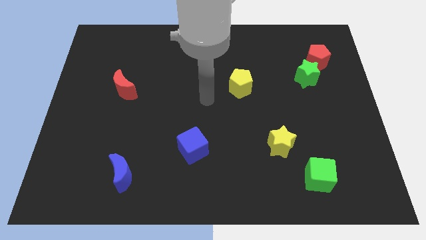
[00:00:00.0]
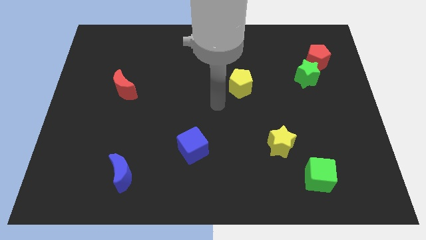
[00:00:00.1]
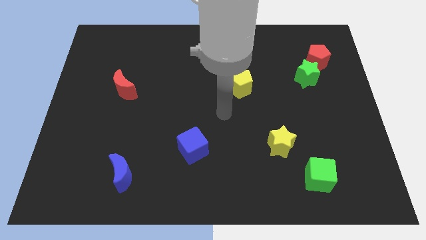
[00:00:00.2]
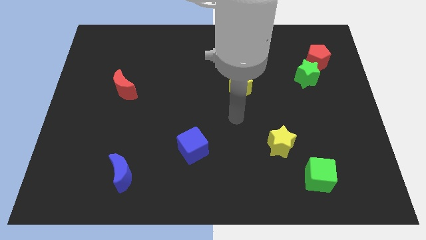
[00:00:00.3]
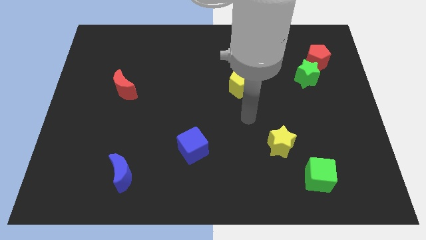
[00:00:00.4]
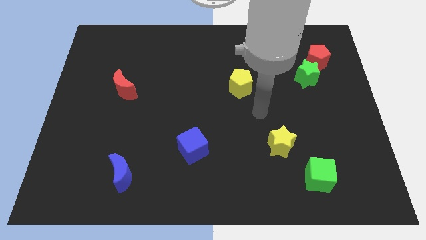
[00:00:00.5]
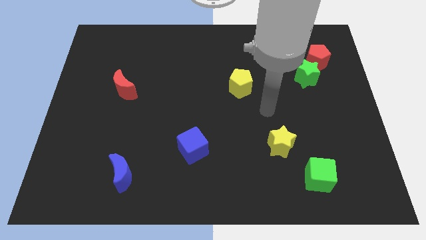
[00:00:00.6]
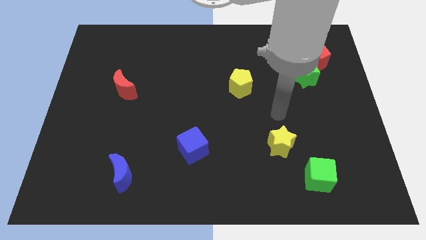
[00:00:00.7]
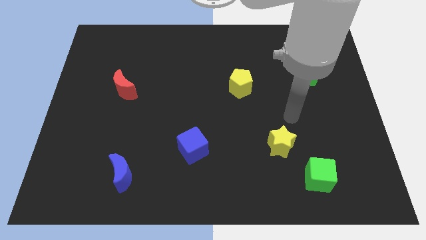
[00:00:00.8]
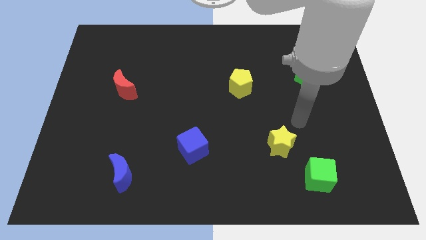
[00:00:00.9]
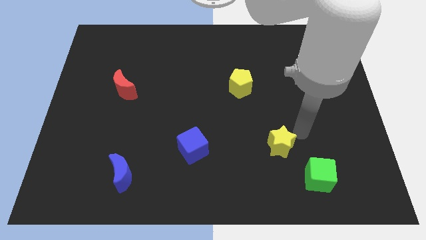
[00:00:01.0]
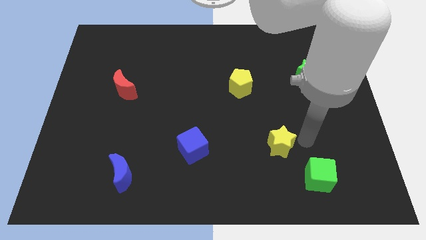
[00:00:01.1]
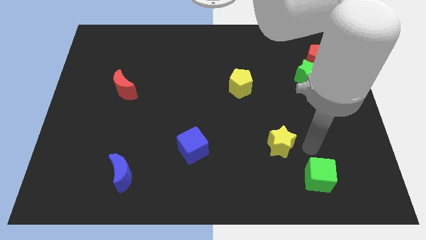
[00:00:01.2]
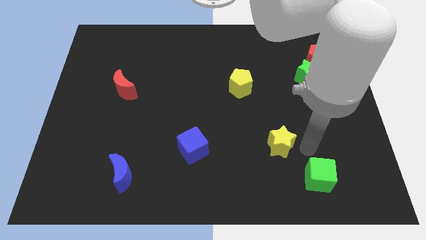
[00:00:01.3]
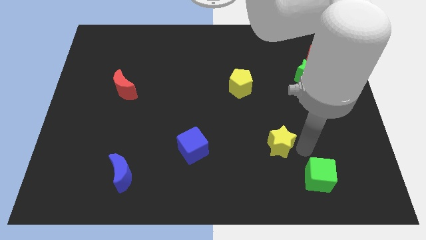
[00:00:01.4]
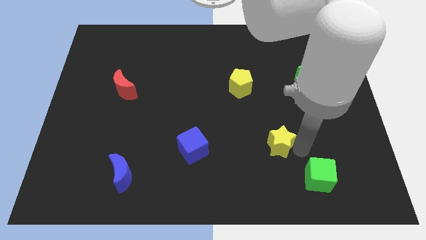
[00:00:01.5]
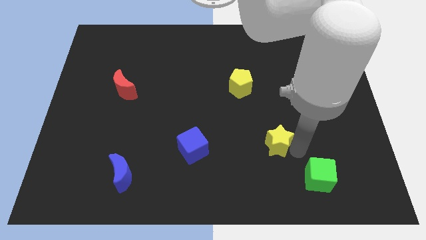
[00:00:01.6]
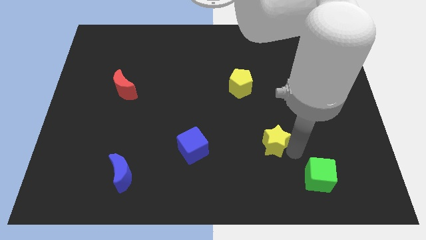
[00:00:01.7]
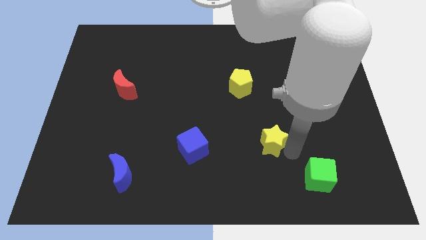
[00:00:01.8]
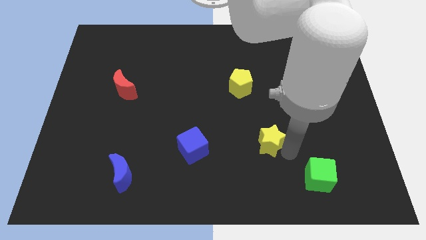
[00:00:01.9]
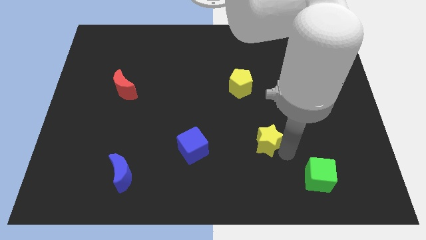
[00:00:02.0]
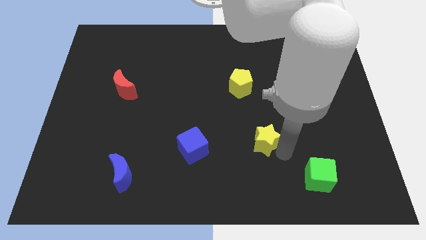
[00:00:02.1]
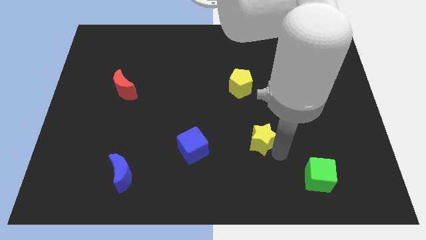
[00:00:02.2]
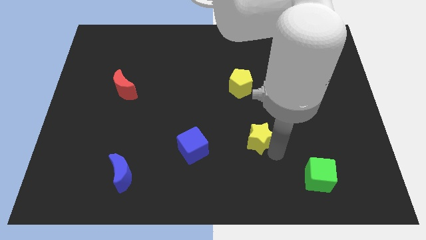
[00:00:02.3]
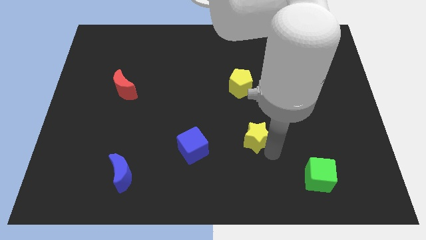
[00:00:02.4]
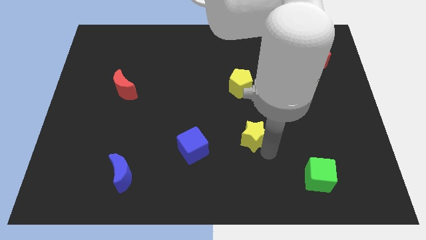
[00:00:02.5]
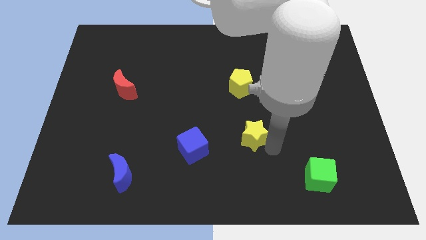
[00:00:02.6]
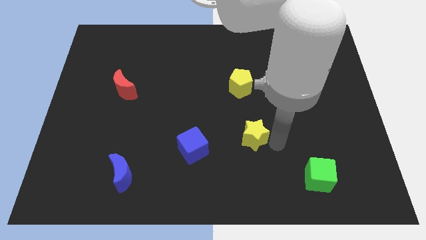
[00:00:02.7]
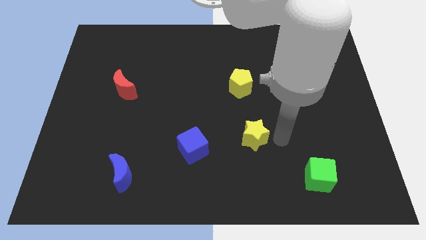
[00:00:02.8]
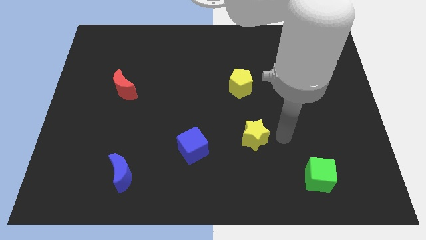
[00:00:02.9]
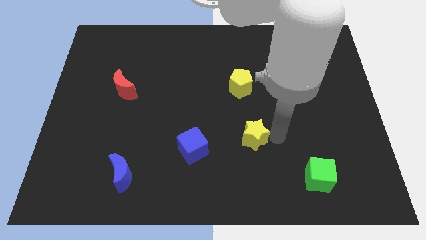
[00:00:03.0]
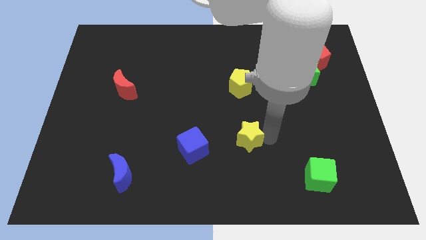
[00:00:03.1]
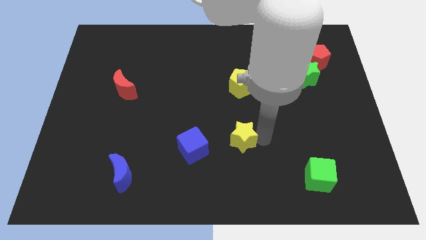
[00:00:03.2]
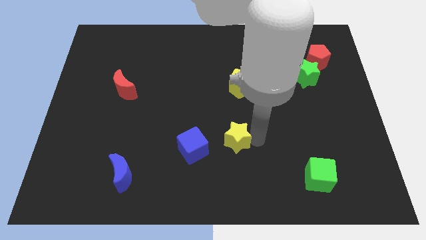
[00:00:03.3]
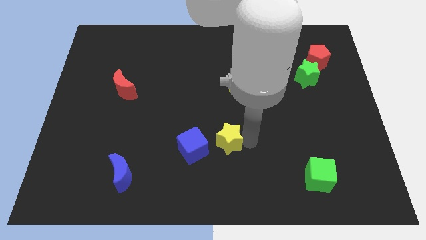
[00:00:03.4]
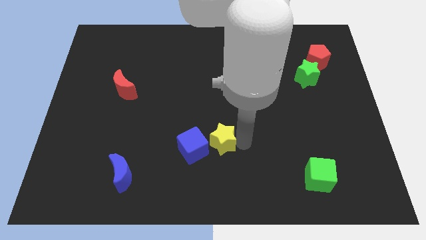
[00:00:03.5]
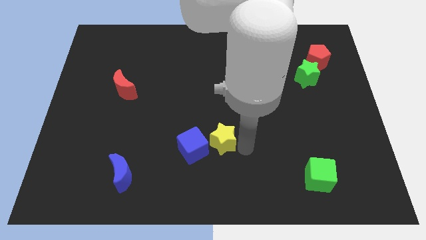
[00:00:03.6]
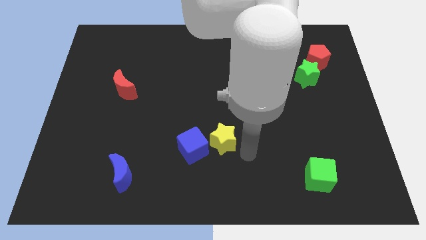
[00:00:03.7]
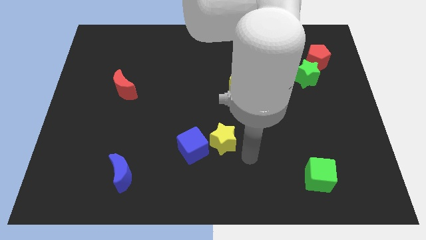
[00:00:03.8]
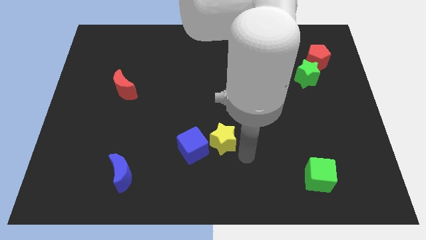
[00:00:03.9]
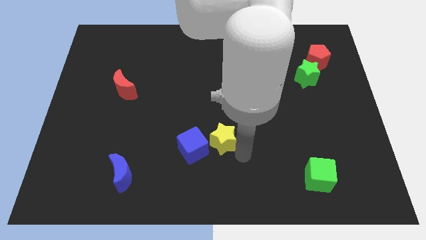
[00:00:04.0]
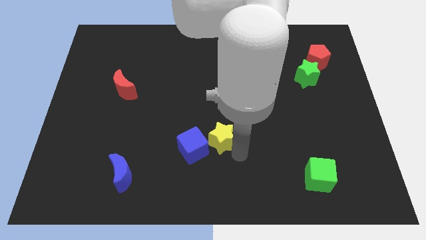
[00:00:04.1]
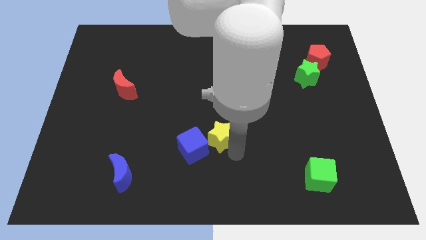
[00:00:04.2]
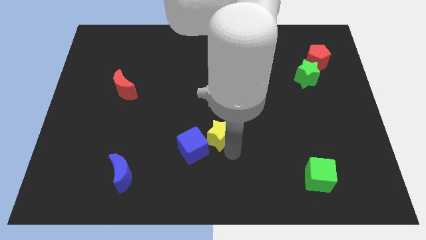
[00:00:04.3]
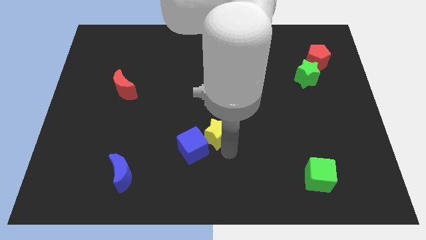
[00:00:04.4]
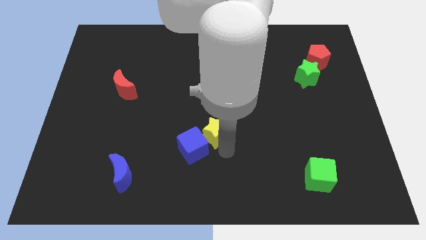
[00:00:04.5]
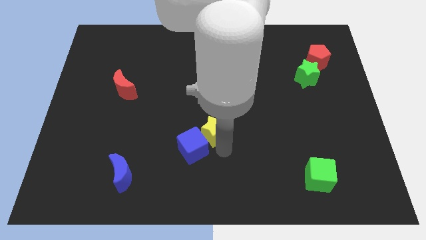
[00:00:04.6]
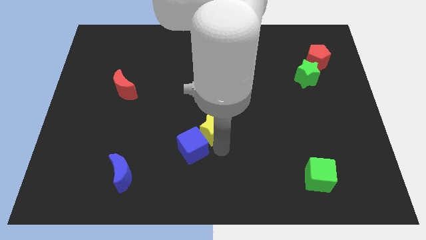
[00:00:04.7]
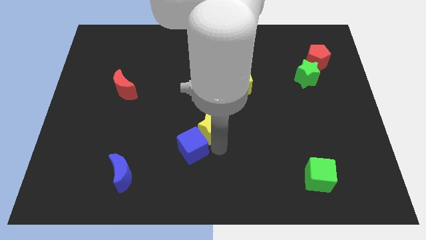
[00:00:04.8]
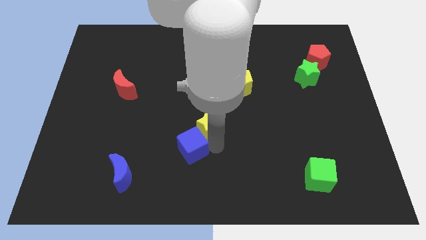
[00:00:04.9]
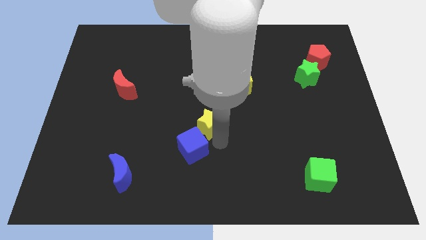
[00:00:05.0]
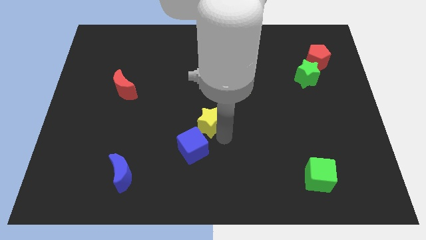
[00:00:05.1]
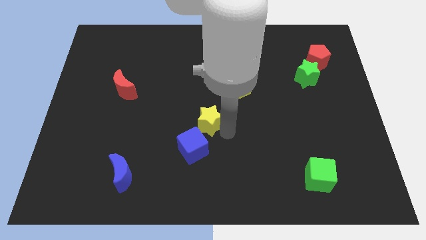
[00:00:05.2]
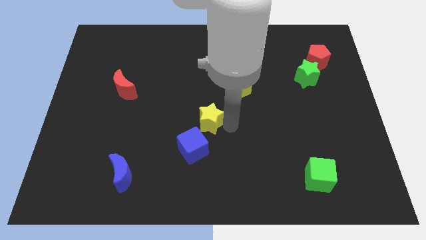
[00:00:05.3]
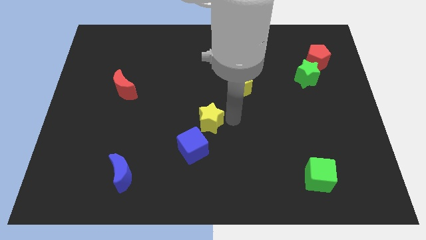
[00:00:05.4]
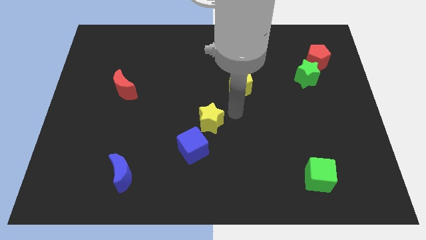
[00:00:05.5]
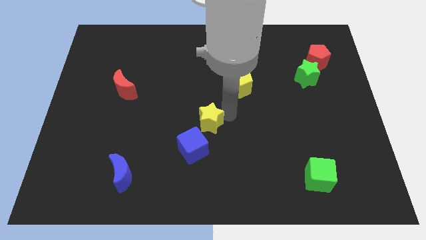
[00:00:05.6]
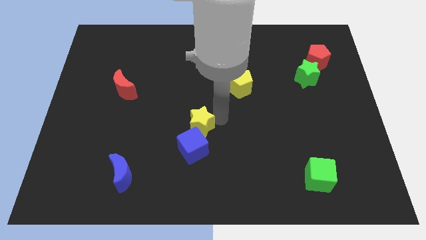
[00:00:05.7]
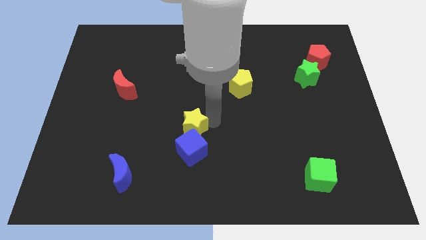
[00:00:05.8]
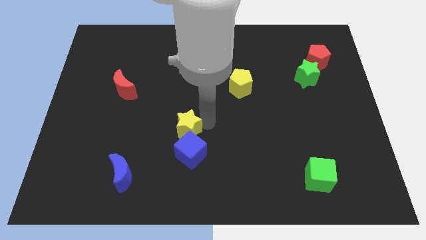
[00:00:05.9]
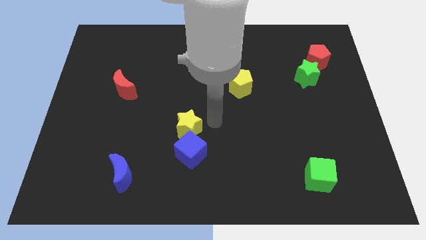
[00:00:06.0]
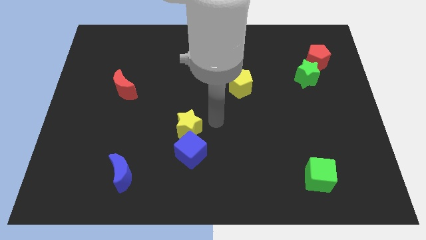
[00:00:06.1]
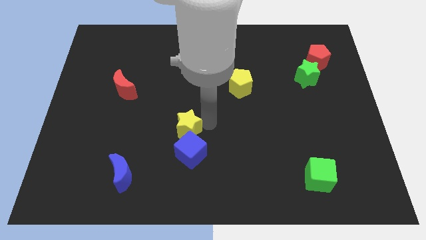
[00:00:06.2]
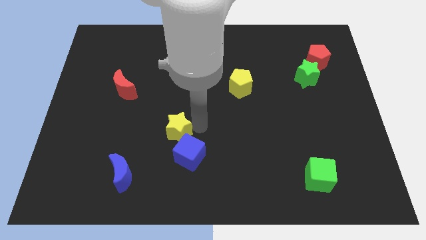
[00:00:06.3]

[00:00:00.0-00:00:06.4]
move the yellow star left

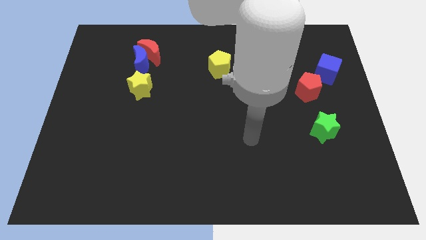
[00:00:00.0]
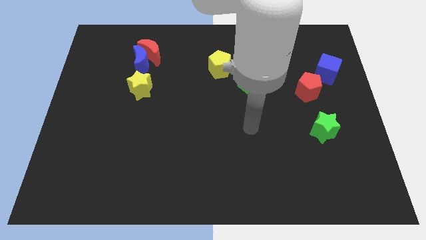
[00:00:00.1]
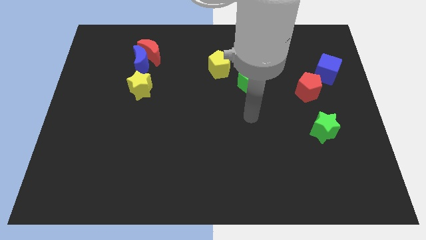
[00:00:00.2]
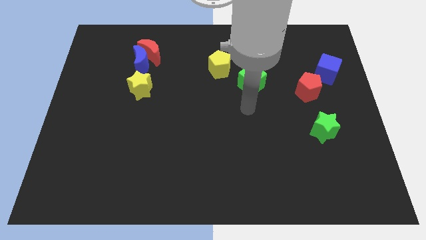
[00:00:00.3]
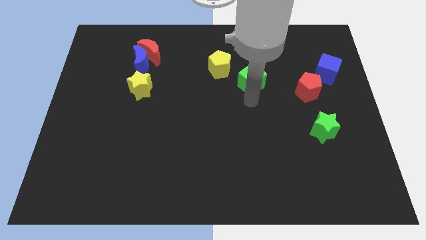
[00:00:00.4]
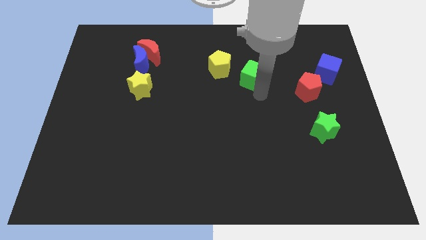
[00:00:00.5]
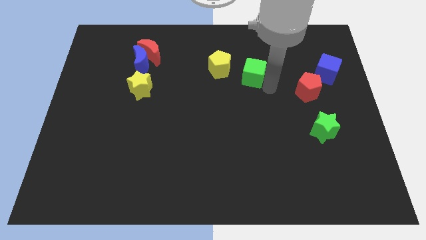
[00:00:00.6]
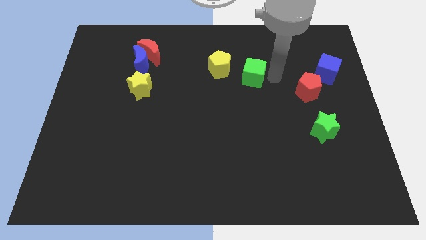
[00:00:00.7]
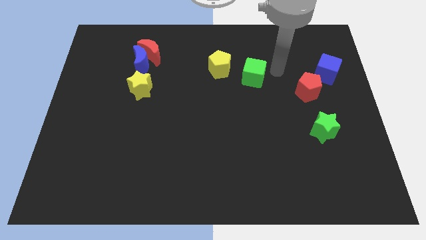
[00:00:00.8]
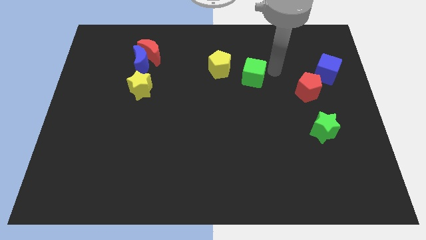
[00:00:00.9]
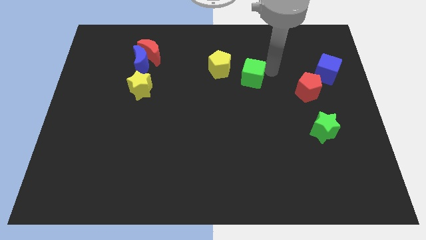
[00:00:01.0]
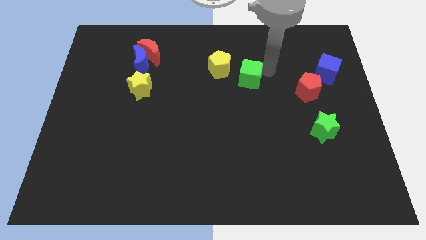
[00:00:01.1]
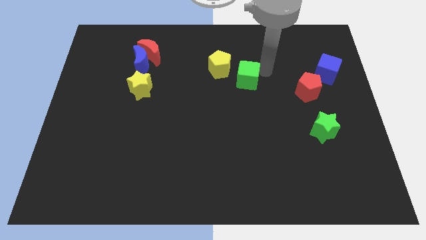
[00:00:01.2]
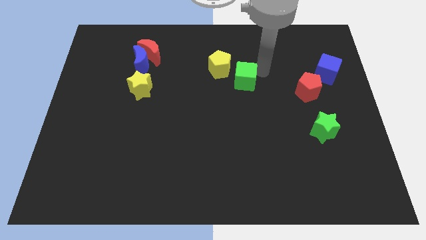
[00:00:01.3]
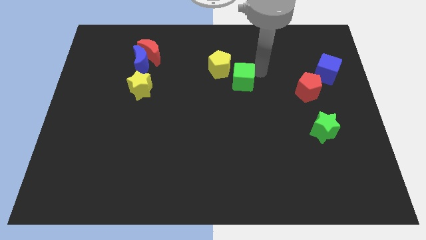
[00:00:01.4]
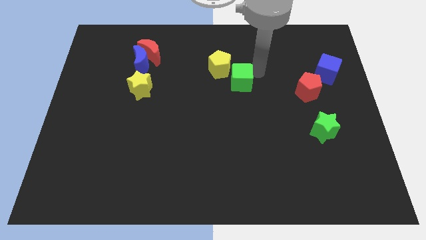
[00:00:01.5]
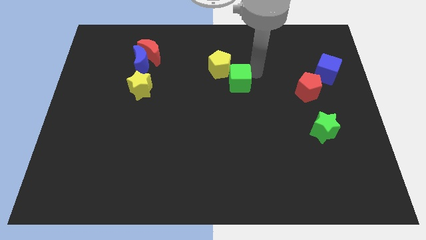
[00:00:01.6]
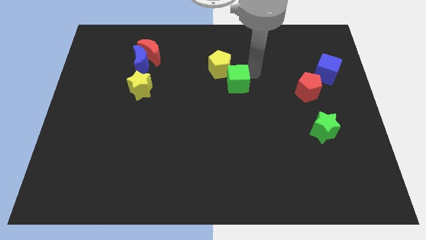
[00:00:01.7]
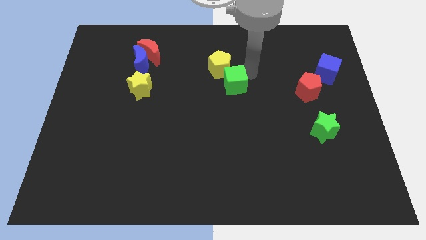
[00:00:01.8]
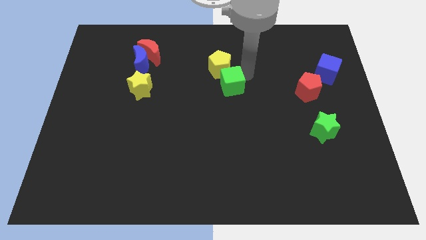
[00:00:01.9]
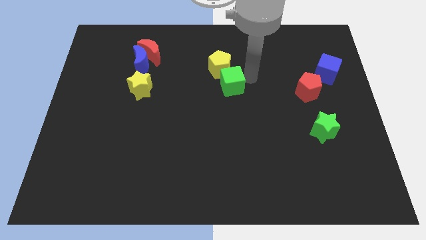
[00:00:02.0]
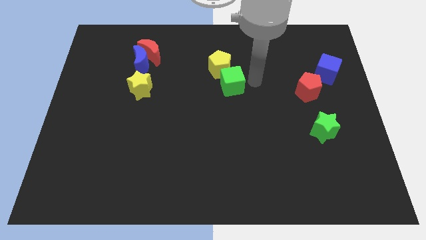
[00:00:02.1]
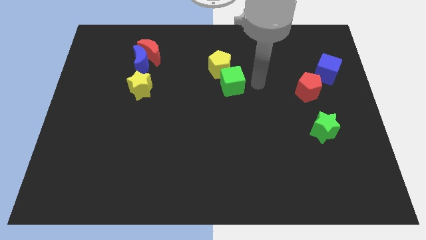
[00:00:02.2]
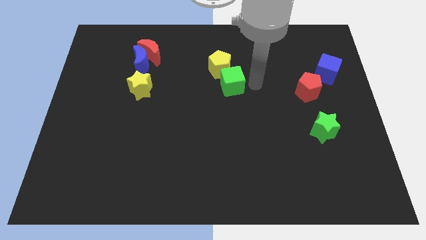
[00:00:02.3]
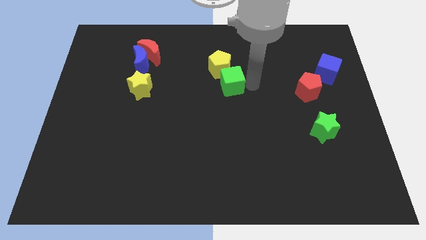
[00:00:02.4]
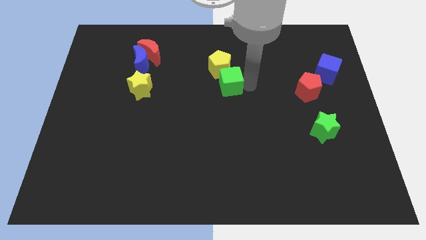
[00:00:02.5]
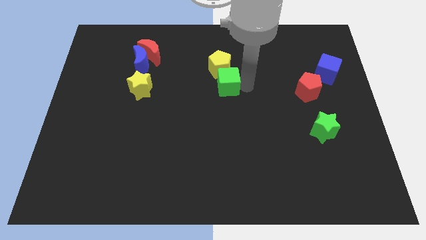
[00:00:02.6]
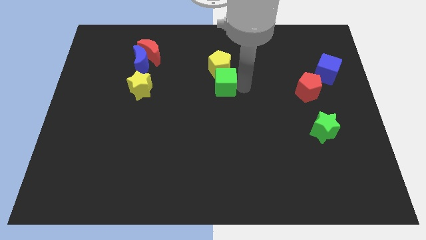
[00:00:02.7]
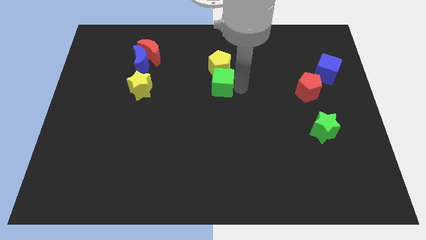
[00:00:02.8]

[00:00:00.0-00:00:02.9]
push the green cube left slightly
